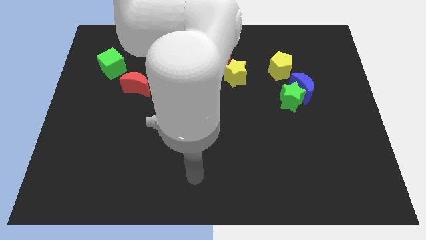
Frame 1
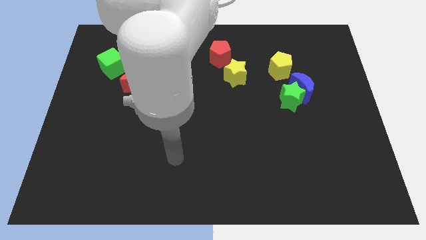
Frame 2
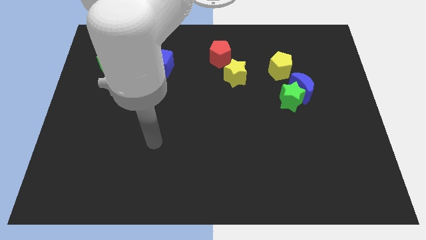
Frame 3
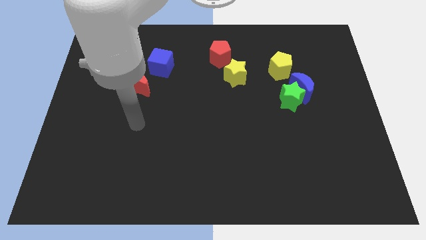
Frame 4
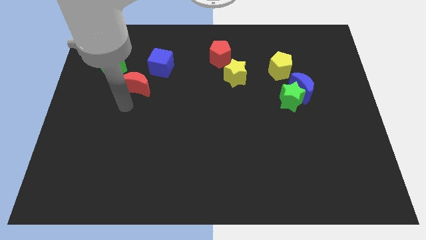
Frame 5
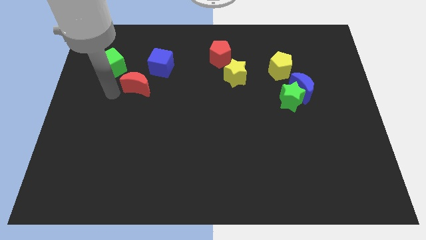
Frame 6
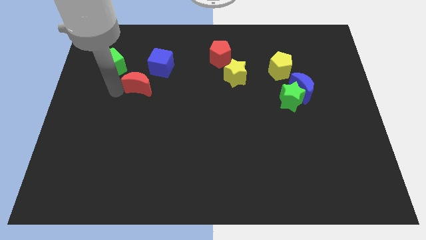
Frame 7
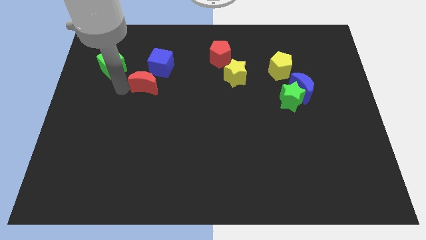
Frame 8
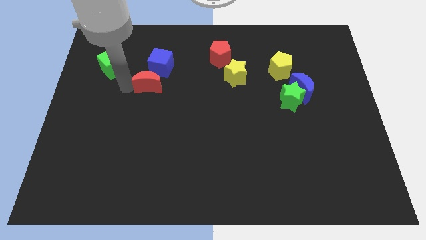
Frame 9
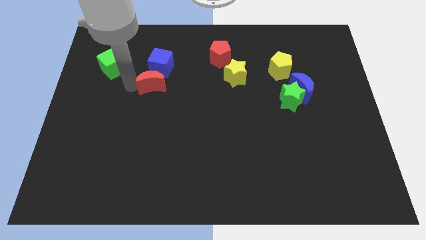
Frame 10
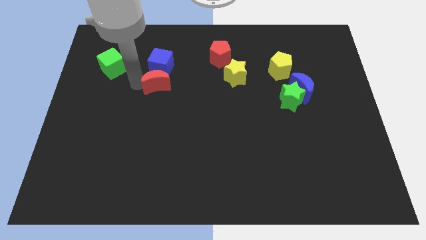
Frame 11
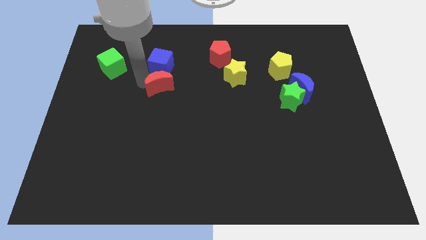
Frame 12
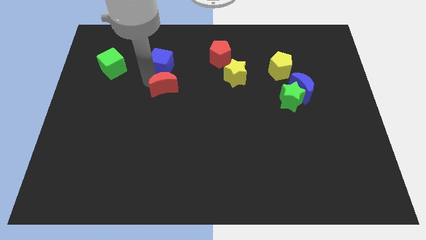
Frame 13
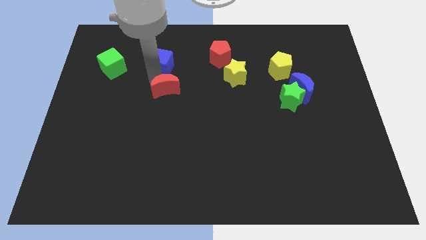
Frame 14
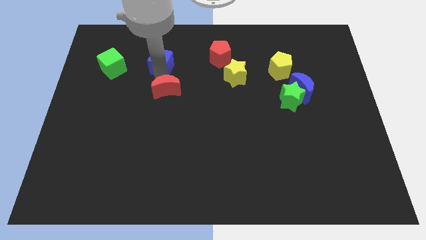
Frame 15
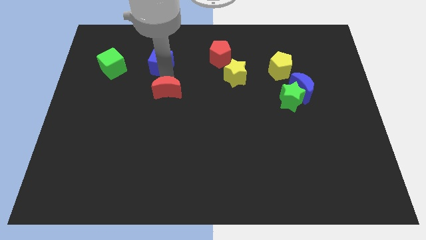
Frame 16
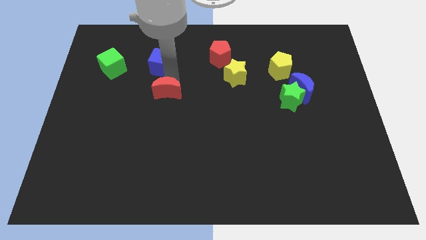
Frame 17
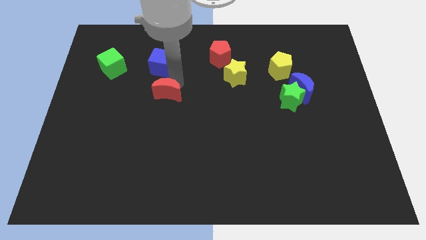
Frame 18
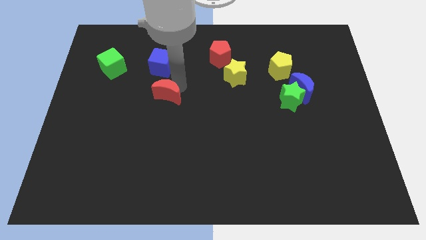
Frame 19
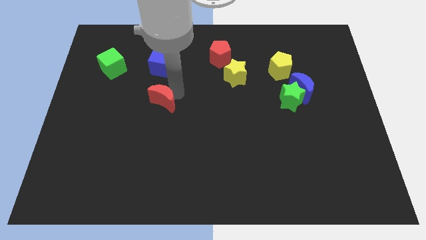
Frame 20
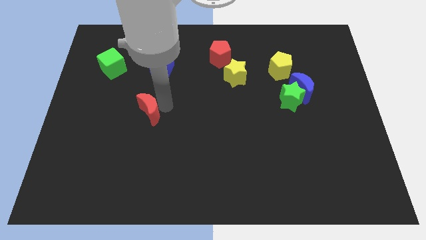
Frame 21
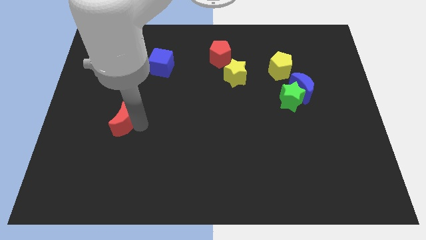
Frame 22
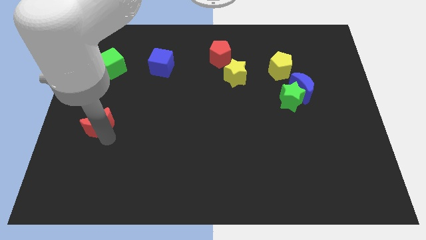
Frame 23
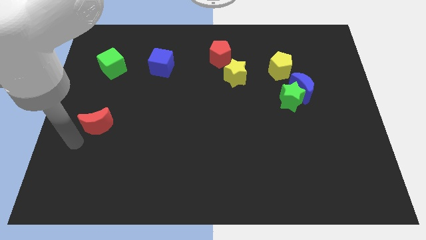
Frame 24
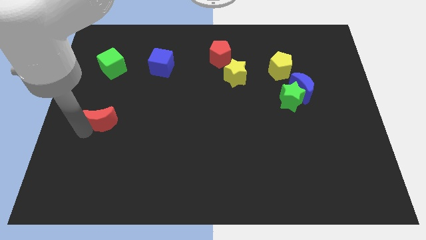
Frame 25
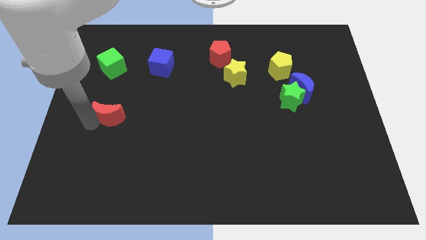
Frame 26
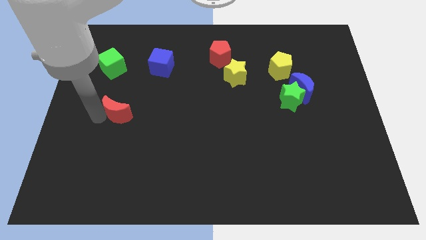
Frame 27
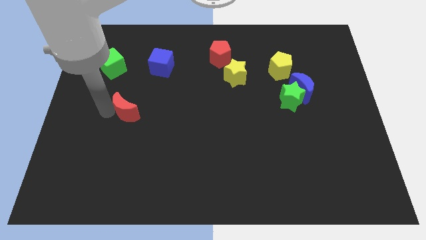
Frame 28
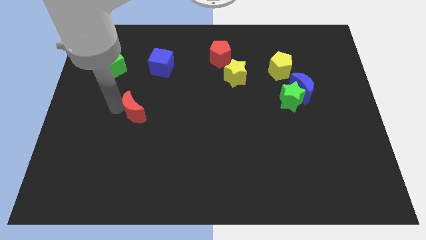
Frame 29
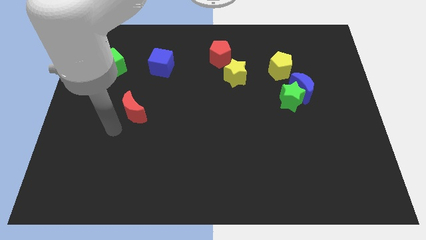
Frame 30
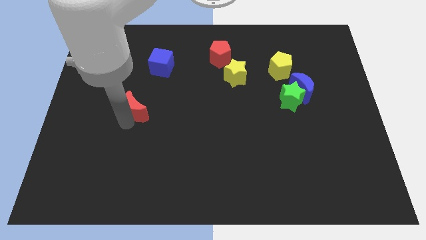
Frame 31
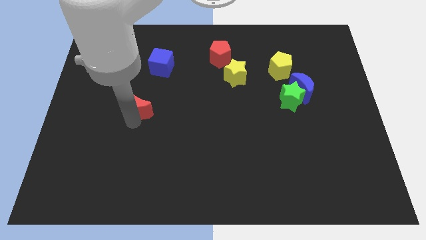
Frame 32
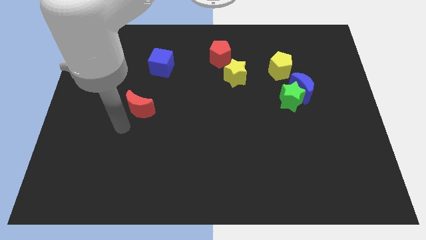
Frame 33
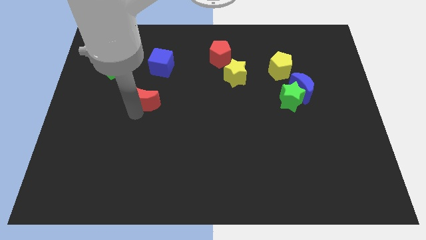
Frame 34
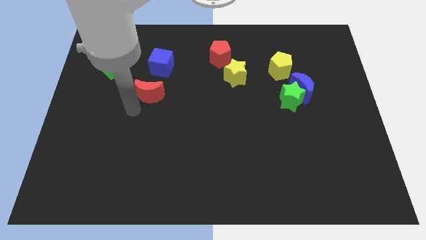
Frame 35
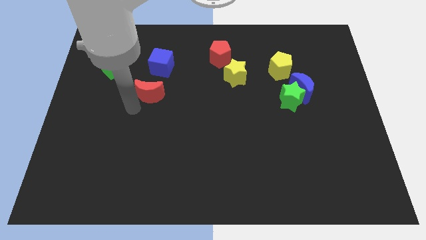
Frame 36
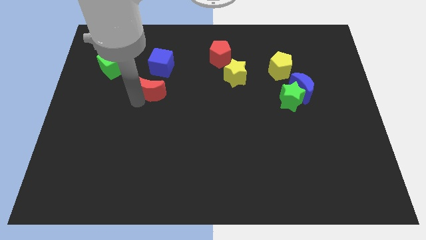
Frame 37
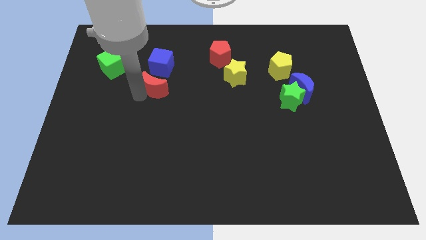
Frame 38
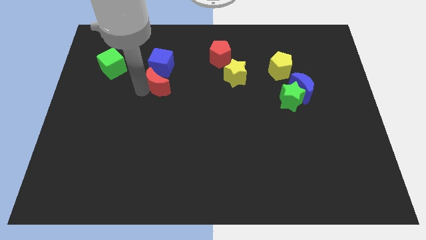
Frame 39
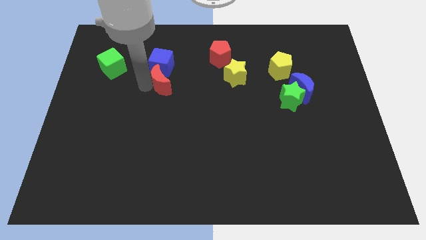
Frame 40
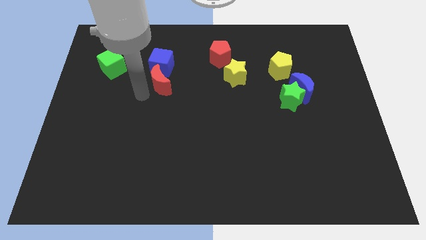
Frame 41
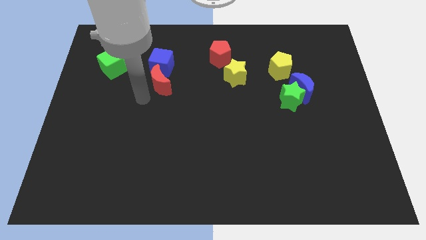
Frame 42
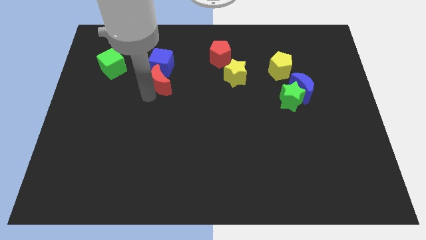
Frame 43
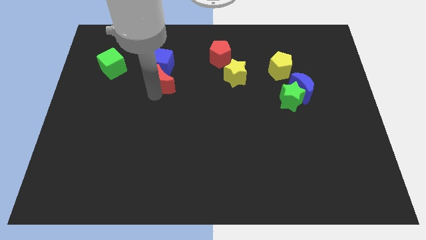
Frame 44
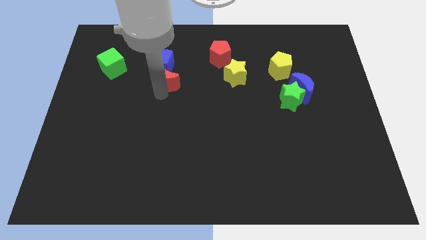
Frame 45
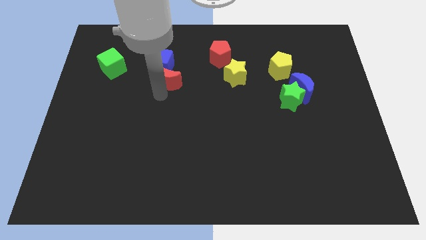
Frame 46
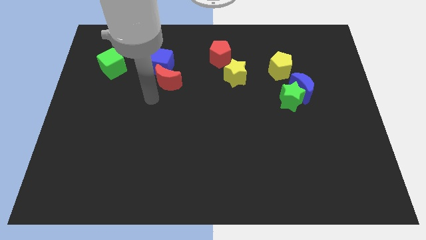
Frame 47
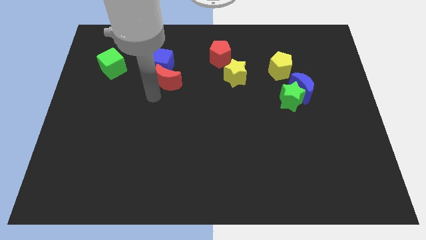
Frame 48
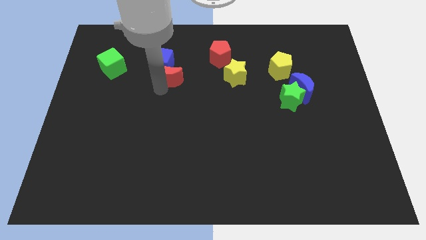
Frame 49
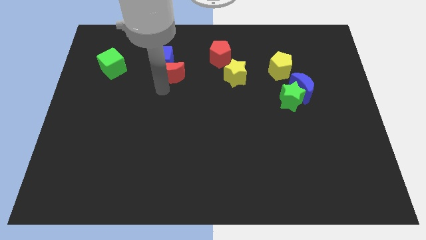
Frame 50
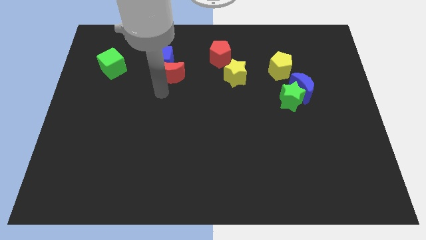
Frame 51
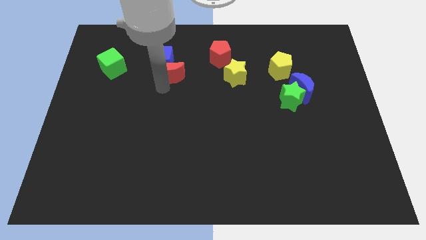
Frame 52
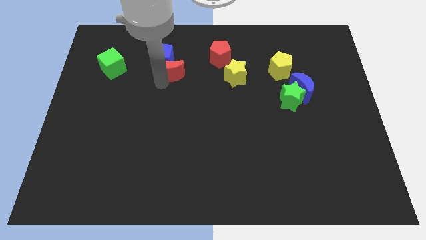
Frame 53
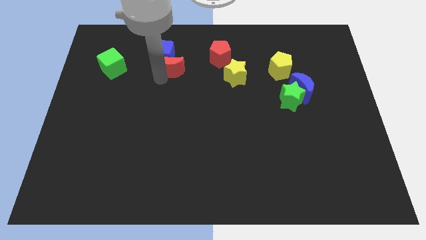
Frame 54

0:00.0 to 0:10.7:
push the red moon to the left side of the red pentagon

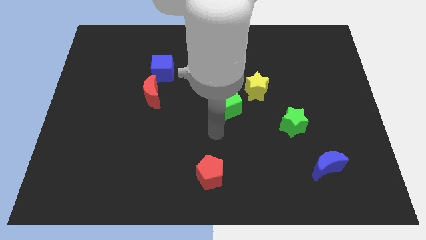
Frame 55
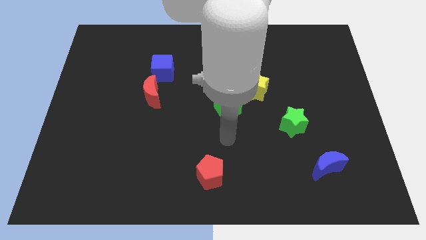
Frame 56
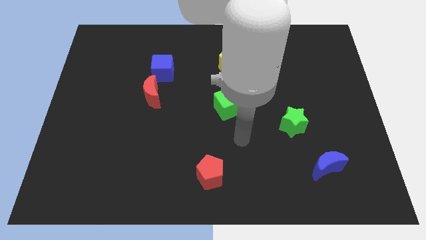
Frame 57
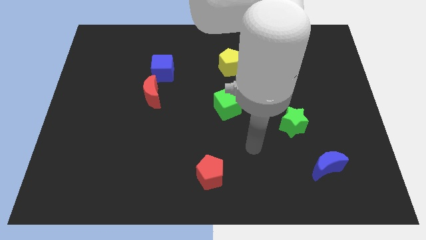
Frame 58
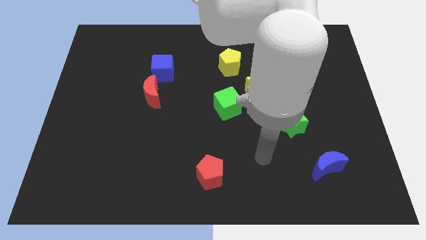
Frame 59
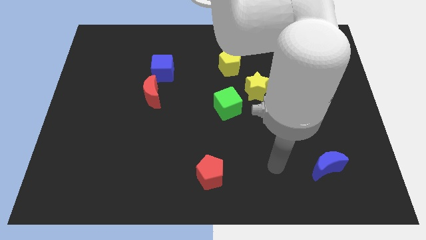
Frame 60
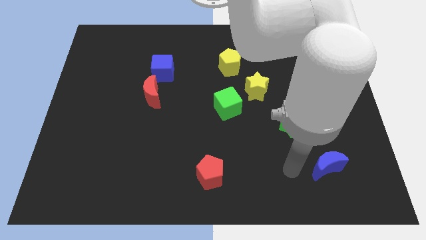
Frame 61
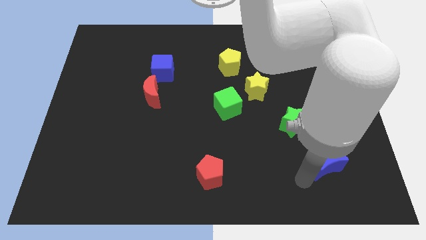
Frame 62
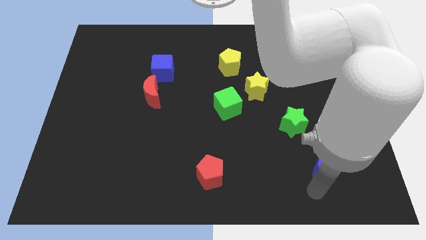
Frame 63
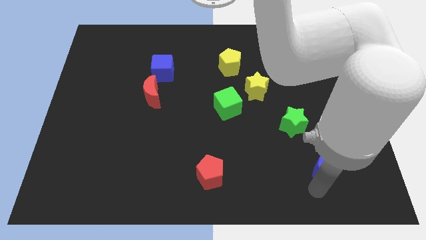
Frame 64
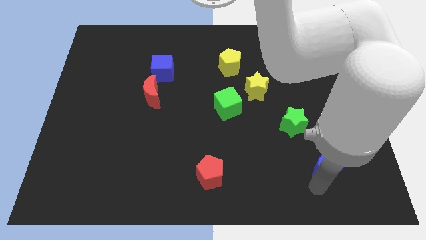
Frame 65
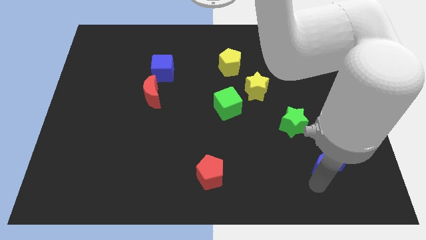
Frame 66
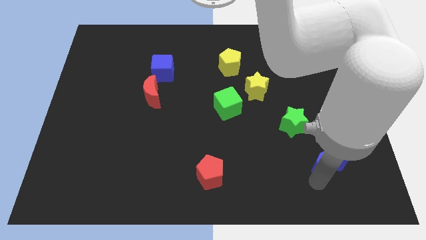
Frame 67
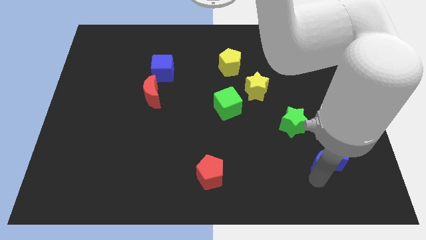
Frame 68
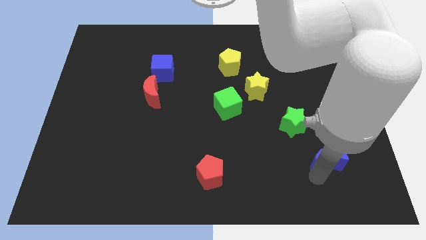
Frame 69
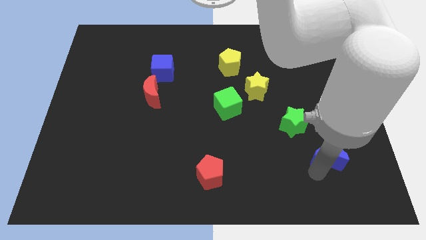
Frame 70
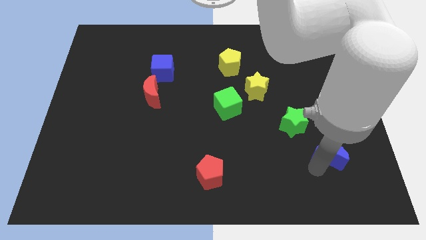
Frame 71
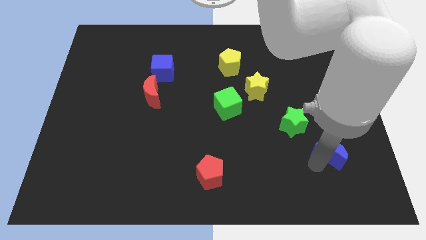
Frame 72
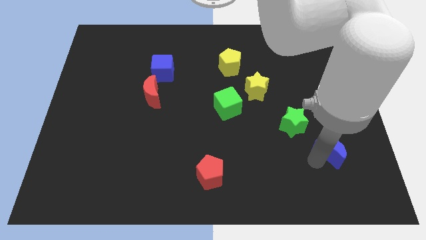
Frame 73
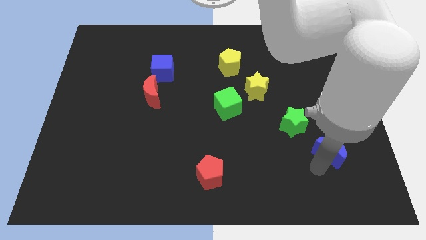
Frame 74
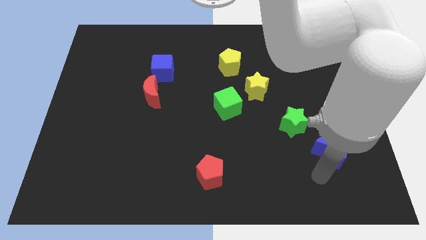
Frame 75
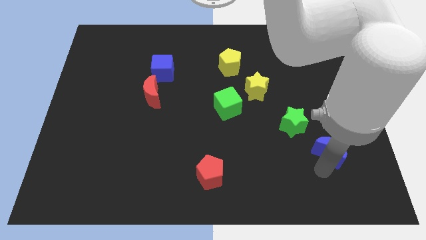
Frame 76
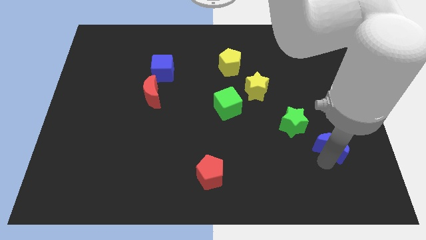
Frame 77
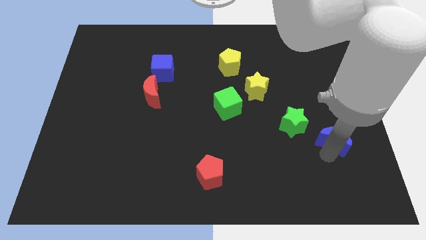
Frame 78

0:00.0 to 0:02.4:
move the blue moon to the right of the green star
